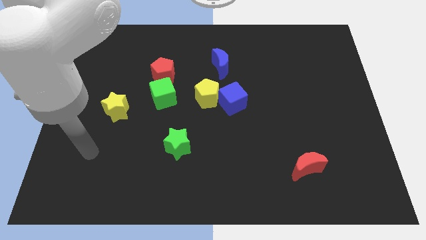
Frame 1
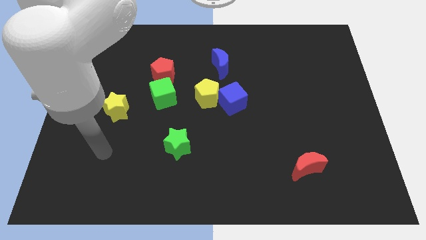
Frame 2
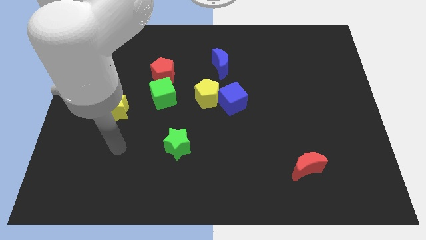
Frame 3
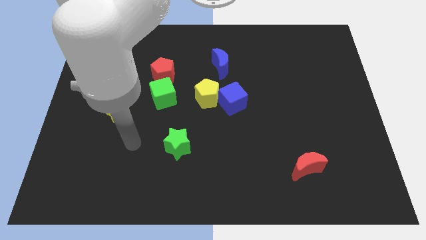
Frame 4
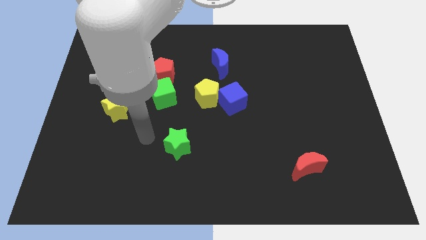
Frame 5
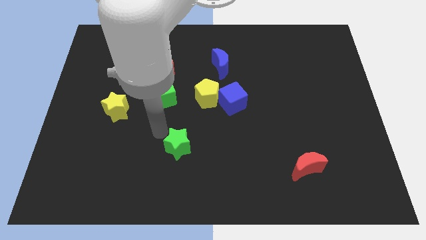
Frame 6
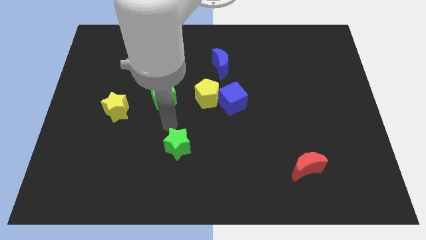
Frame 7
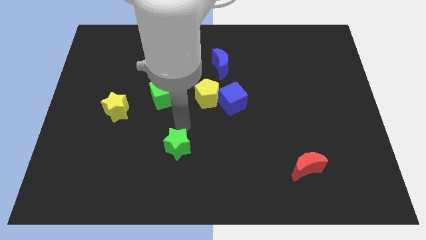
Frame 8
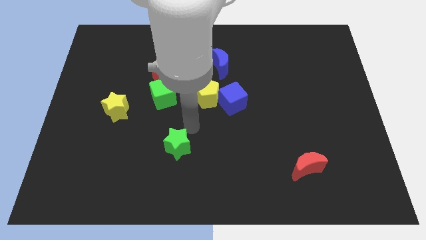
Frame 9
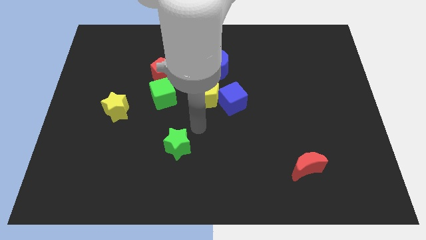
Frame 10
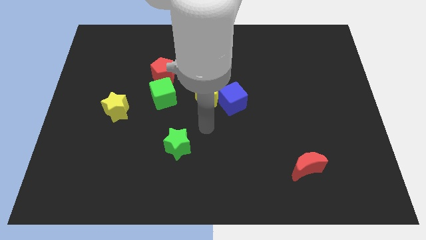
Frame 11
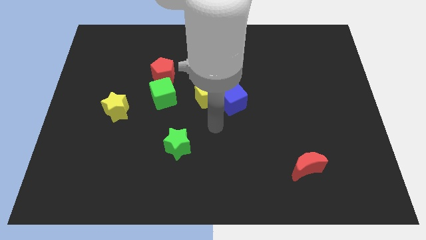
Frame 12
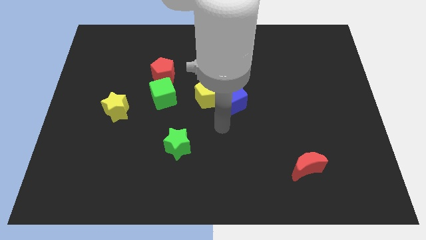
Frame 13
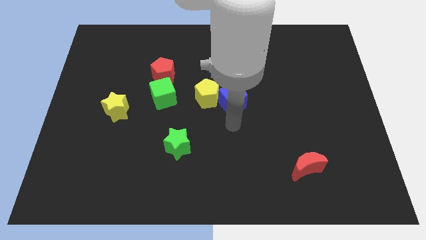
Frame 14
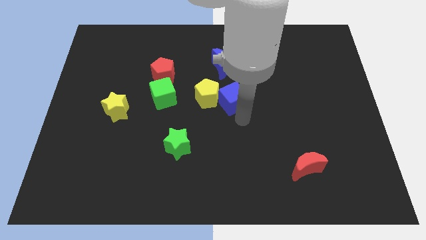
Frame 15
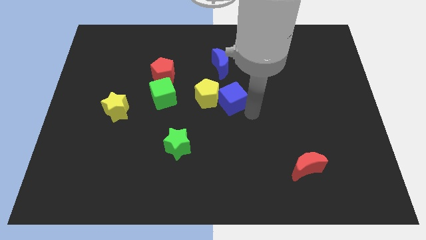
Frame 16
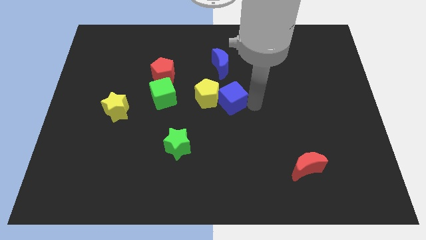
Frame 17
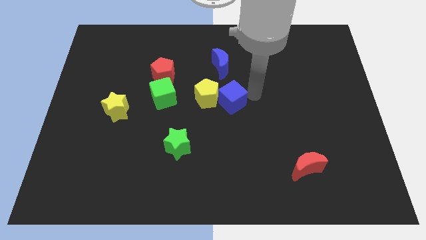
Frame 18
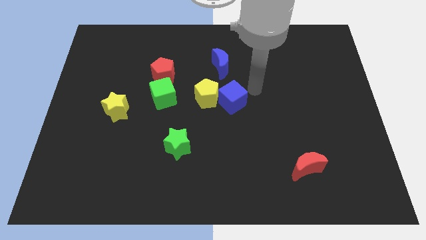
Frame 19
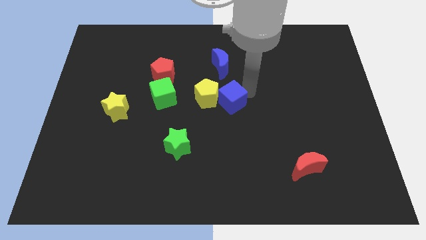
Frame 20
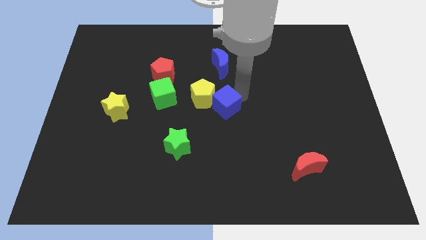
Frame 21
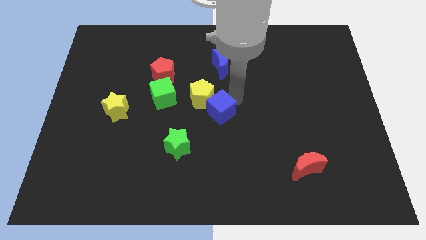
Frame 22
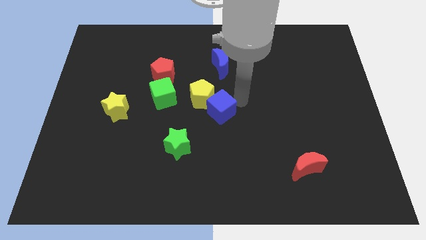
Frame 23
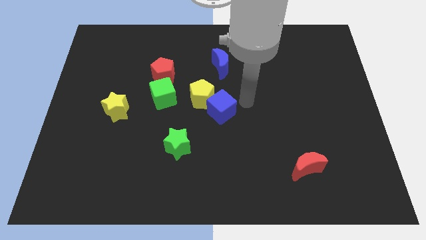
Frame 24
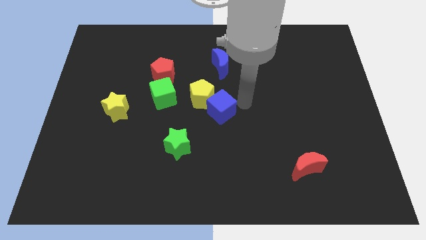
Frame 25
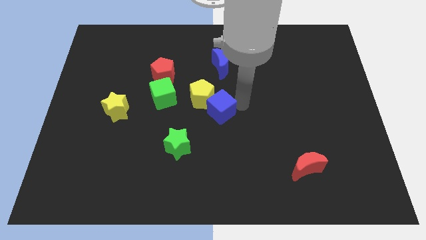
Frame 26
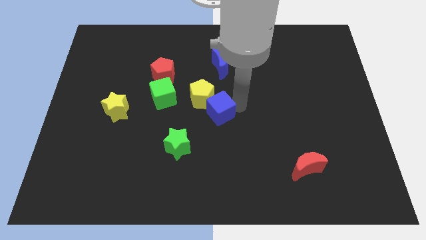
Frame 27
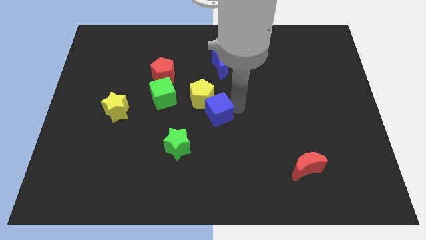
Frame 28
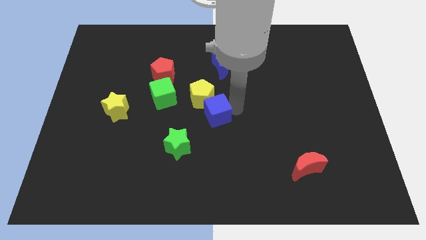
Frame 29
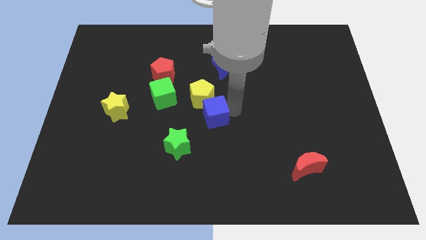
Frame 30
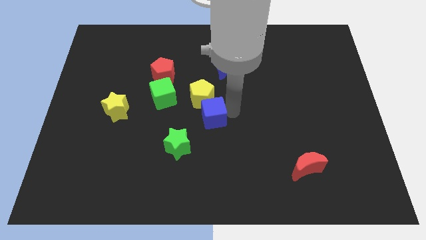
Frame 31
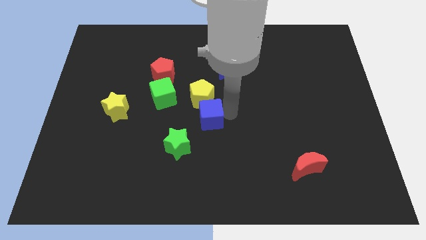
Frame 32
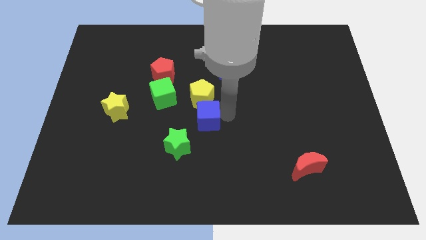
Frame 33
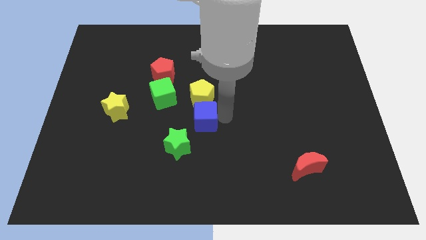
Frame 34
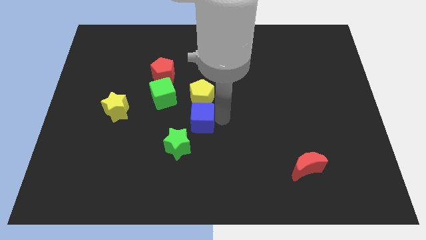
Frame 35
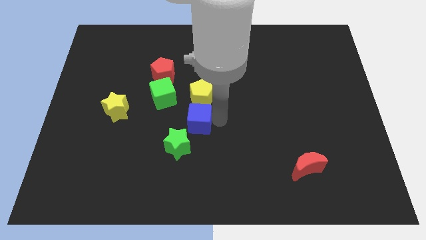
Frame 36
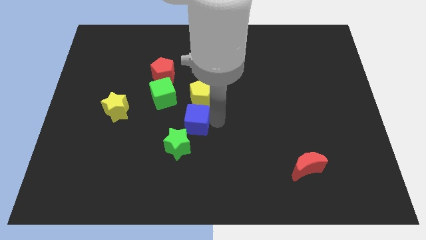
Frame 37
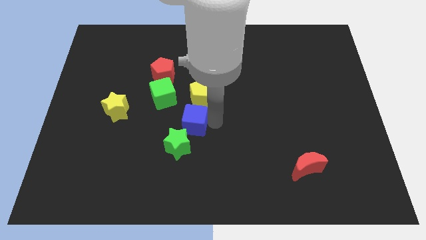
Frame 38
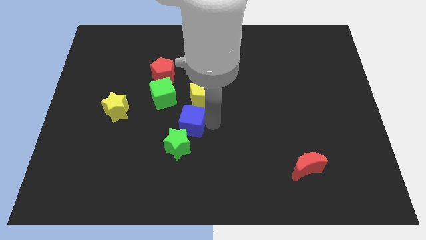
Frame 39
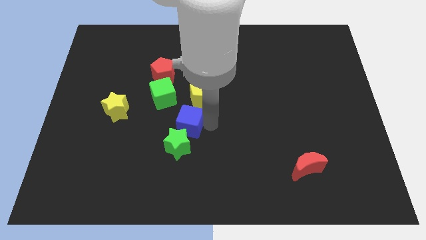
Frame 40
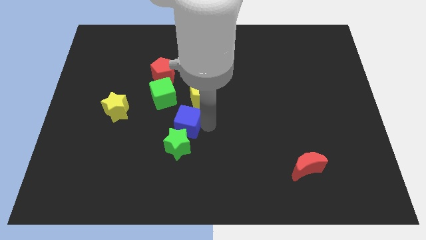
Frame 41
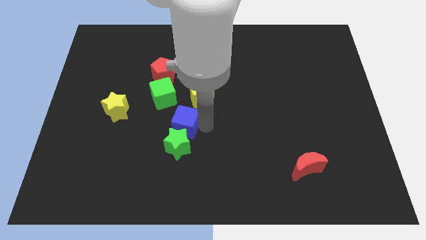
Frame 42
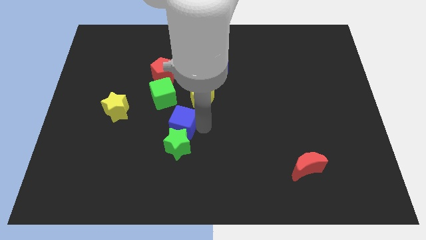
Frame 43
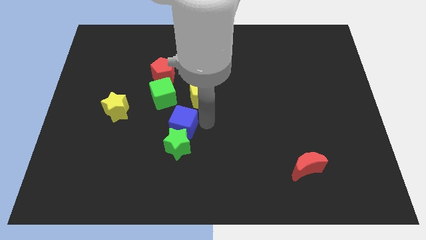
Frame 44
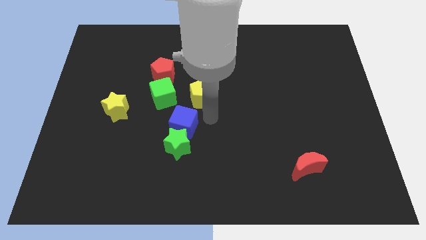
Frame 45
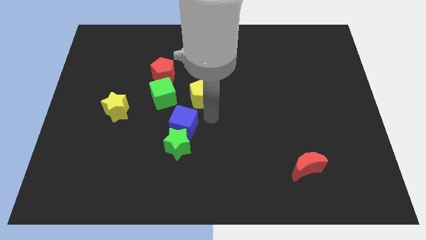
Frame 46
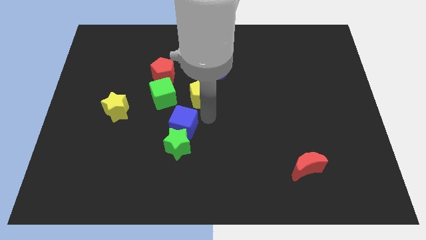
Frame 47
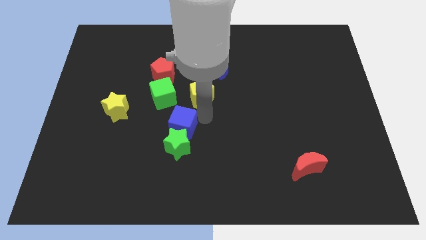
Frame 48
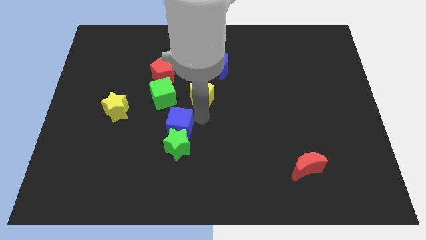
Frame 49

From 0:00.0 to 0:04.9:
push the blue cube below the green cube

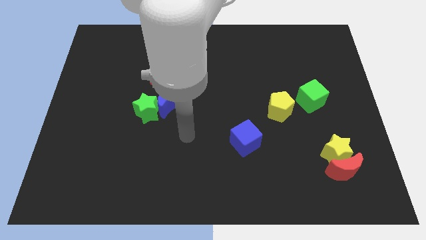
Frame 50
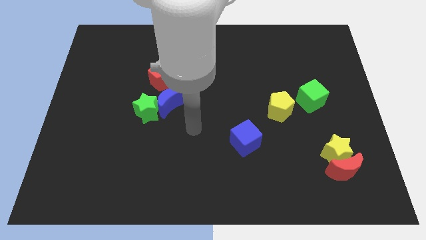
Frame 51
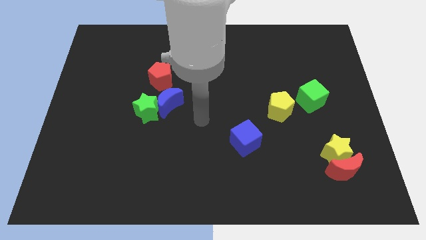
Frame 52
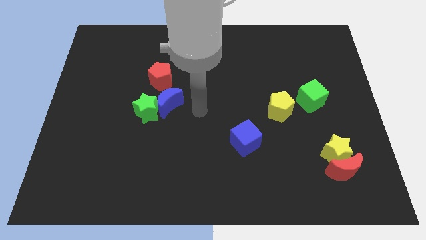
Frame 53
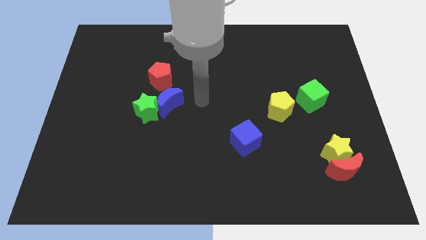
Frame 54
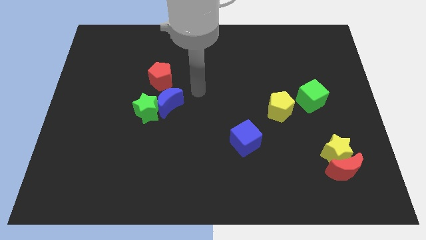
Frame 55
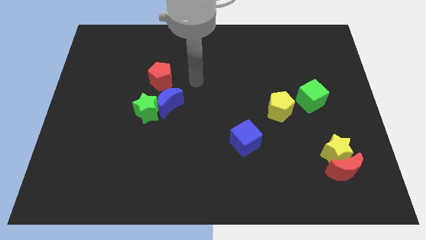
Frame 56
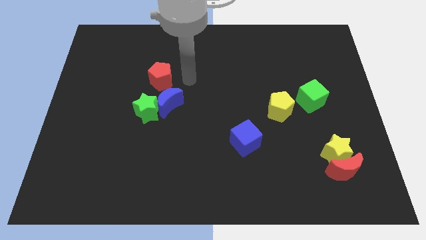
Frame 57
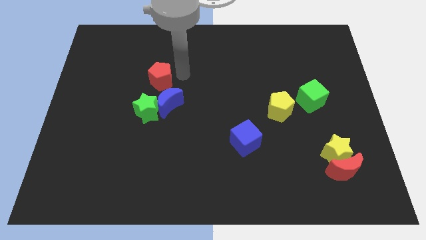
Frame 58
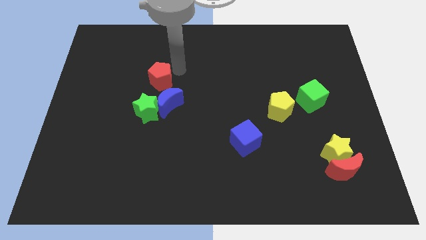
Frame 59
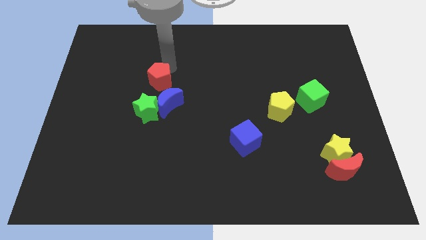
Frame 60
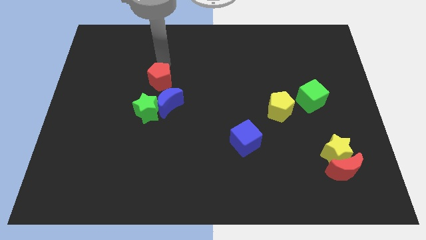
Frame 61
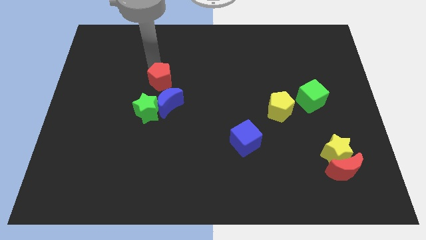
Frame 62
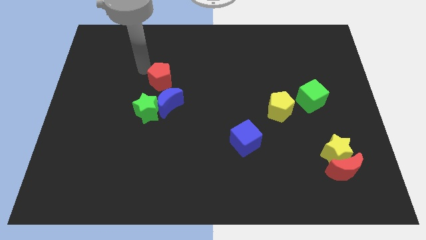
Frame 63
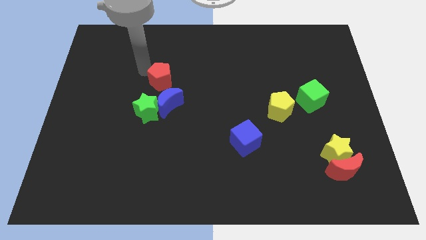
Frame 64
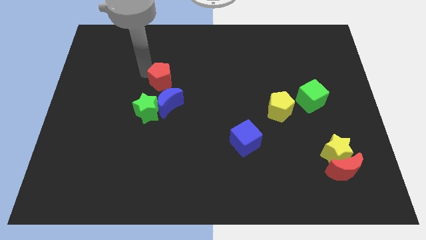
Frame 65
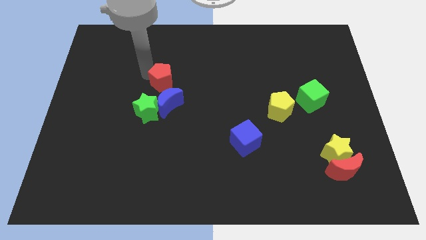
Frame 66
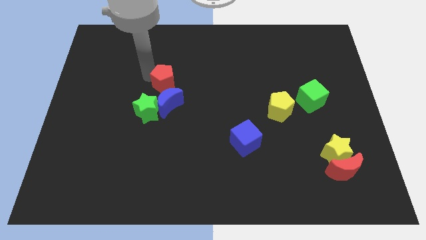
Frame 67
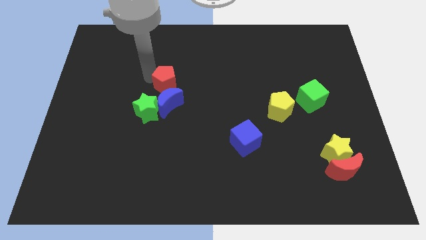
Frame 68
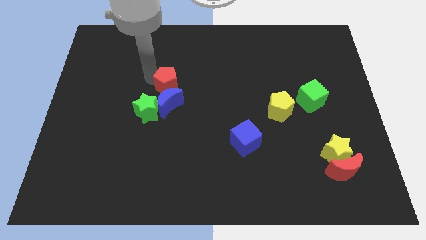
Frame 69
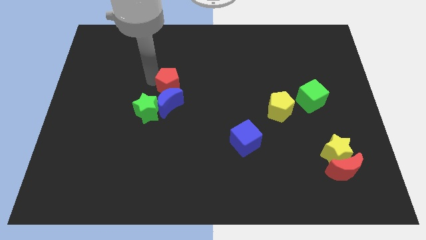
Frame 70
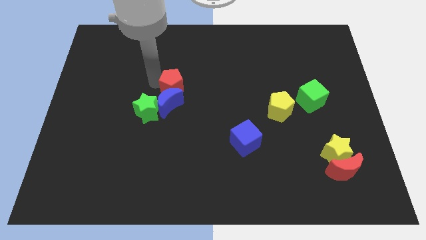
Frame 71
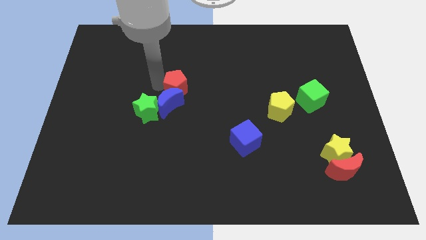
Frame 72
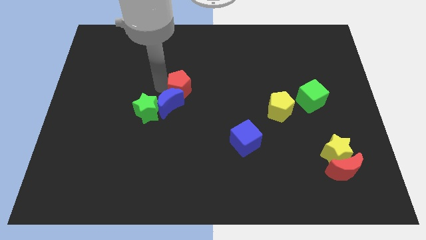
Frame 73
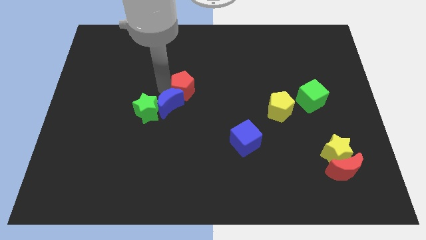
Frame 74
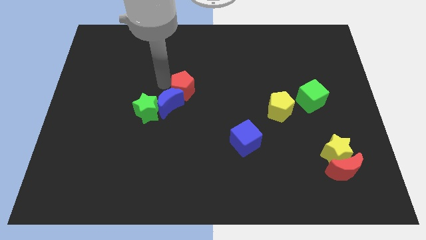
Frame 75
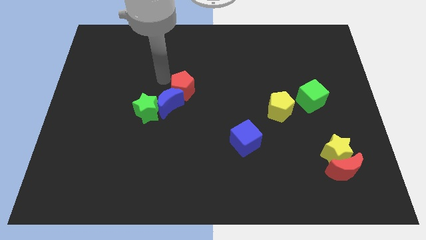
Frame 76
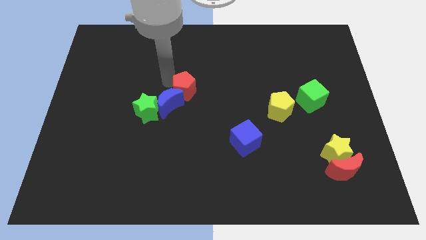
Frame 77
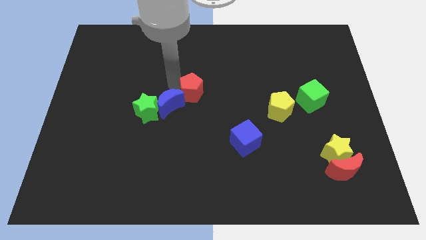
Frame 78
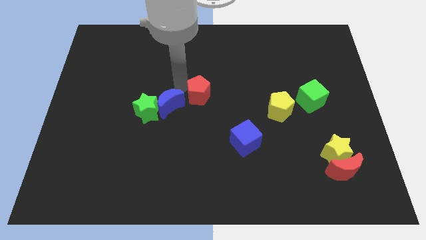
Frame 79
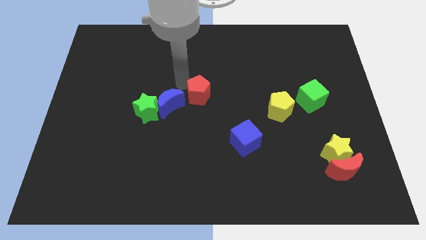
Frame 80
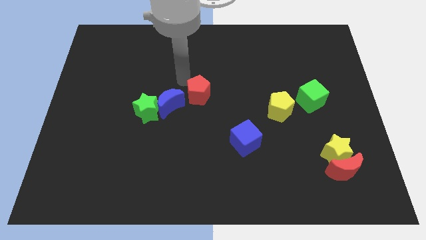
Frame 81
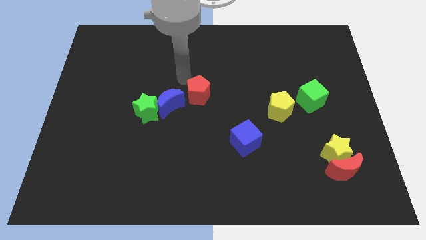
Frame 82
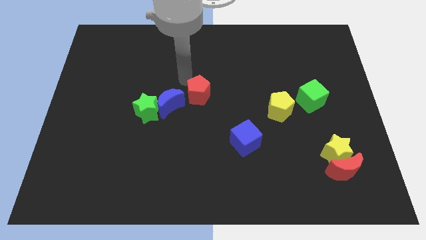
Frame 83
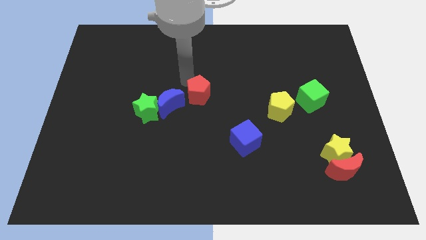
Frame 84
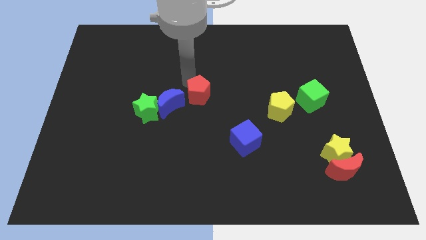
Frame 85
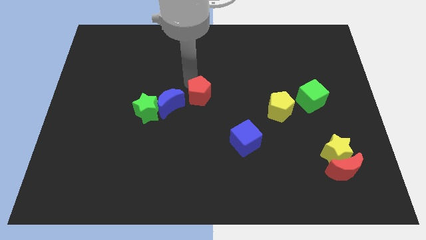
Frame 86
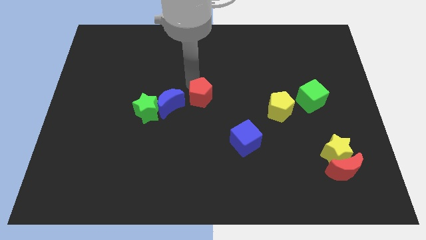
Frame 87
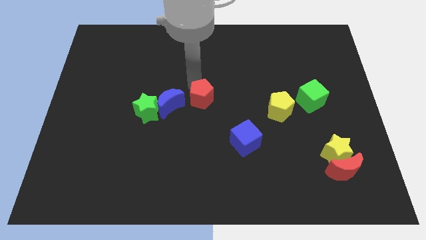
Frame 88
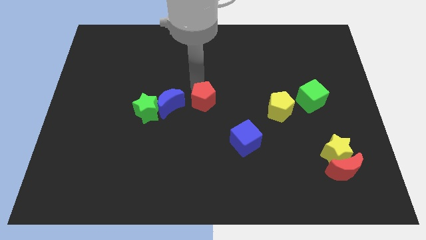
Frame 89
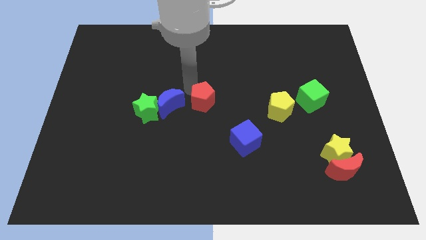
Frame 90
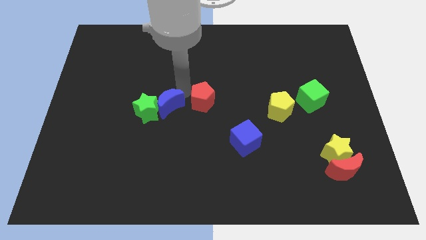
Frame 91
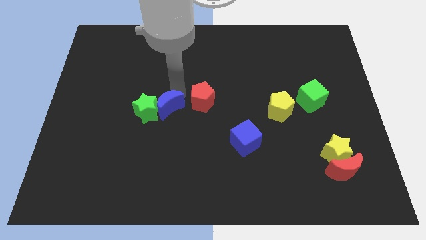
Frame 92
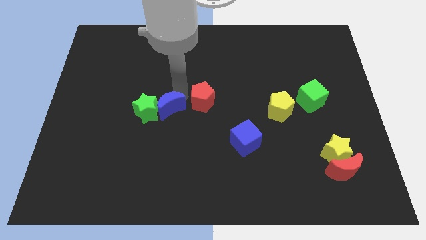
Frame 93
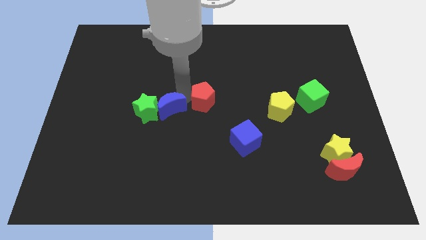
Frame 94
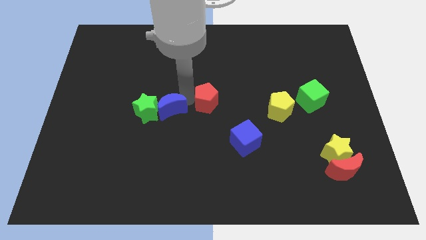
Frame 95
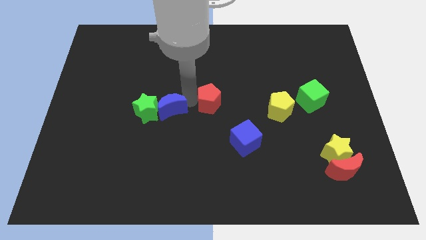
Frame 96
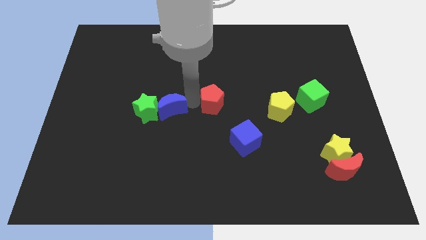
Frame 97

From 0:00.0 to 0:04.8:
move the red pentagon just left of the yellow pentagon
